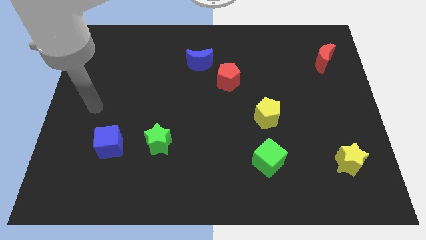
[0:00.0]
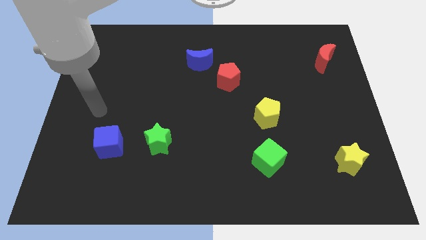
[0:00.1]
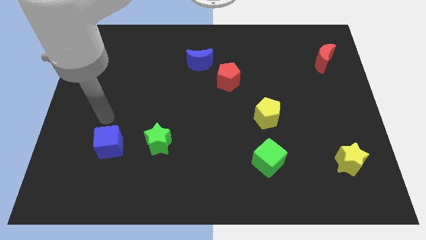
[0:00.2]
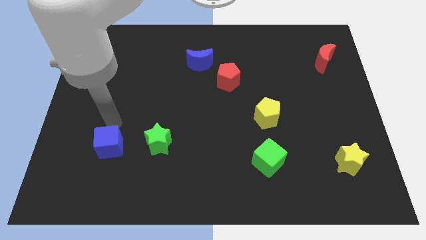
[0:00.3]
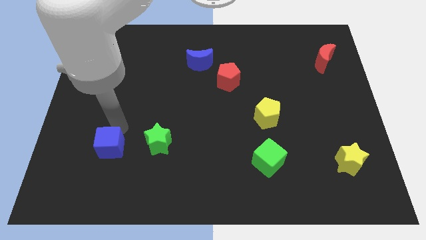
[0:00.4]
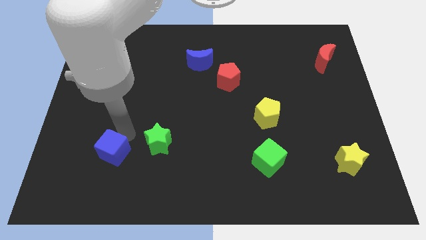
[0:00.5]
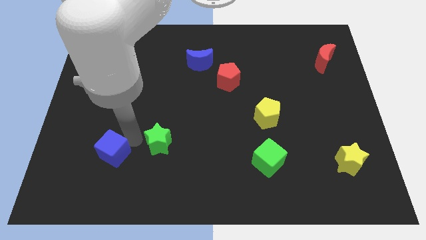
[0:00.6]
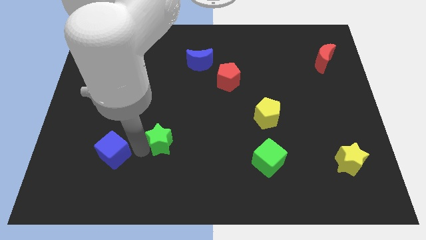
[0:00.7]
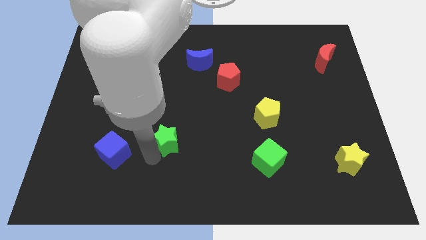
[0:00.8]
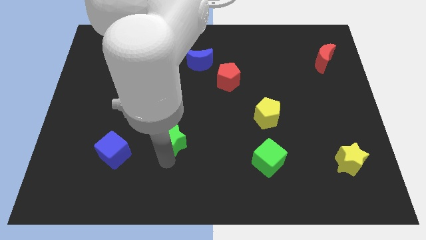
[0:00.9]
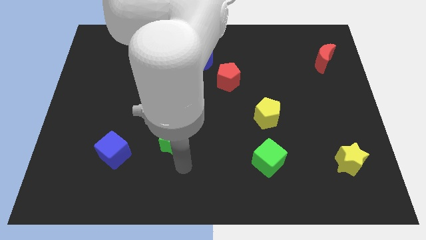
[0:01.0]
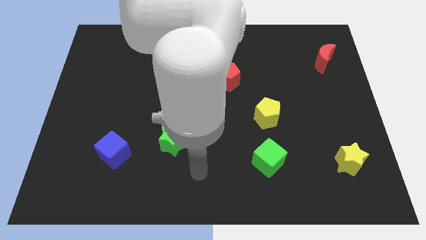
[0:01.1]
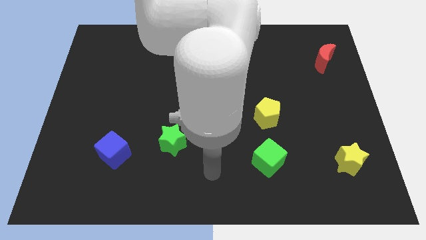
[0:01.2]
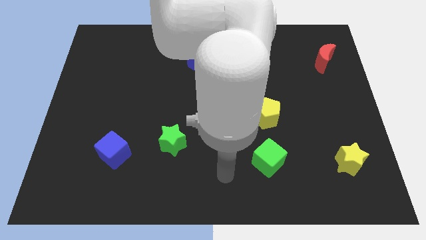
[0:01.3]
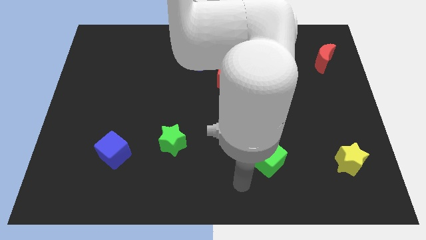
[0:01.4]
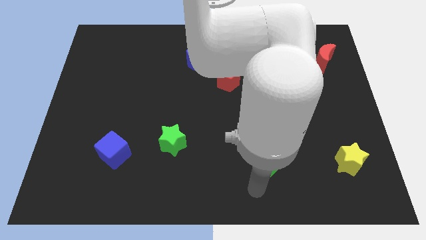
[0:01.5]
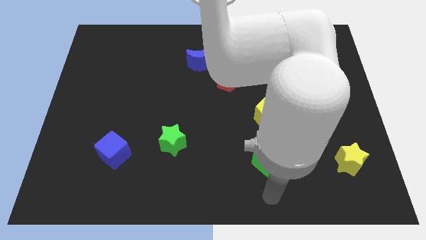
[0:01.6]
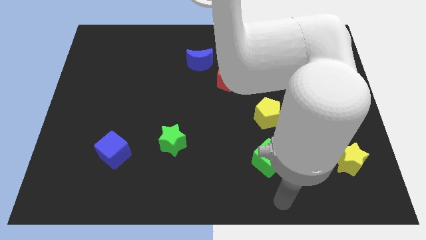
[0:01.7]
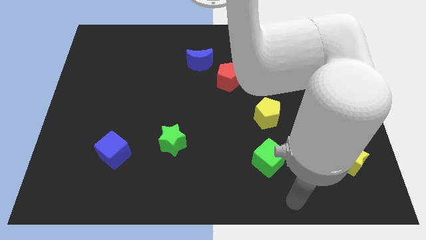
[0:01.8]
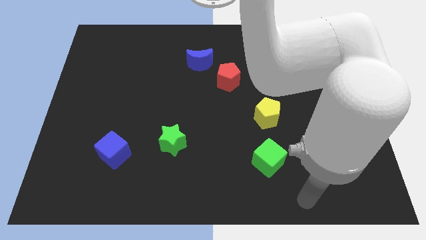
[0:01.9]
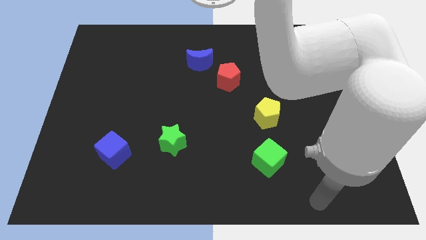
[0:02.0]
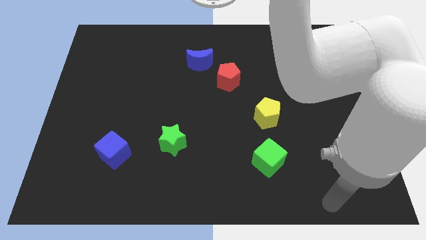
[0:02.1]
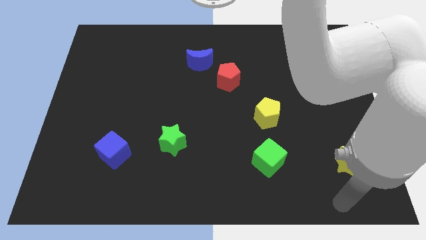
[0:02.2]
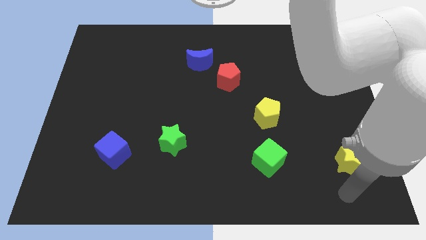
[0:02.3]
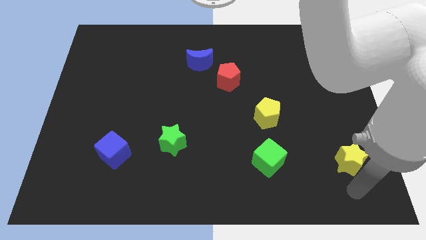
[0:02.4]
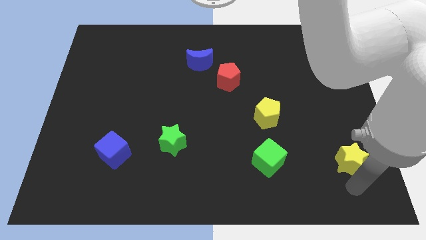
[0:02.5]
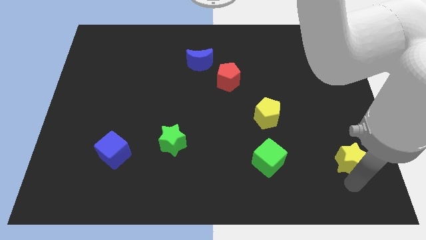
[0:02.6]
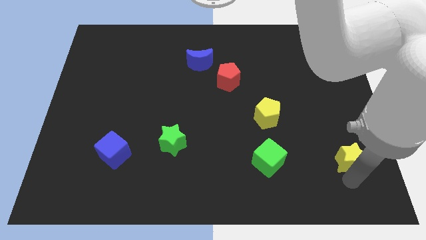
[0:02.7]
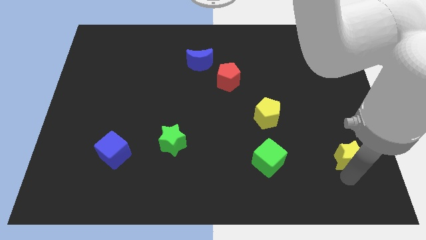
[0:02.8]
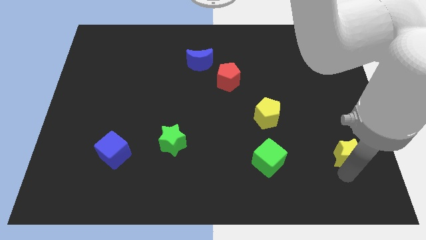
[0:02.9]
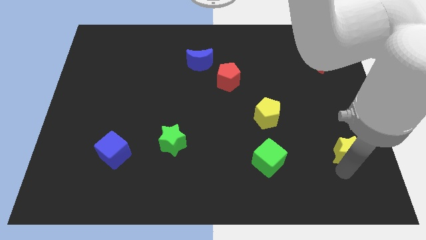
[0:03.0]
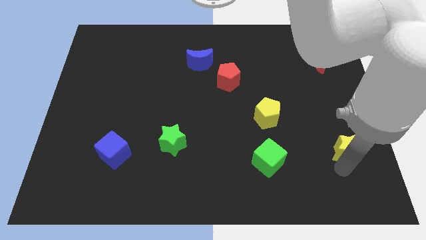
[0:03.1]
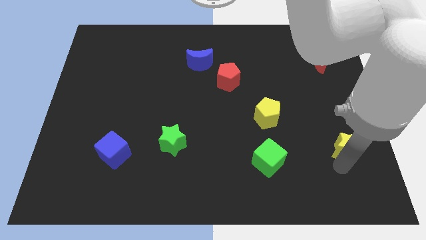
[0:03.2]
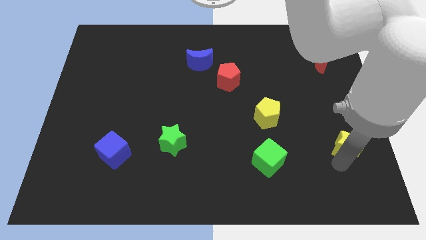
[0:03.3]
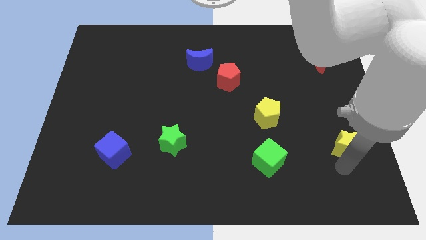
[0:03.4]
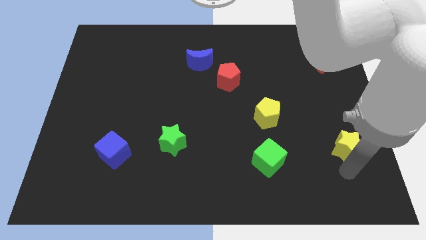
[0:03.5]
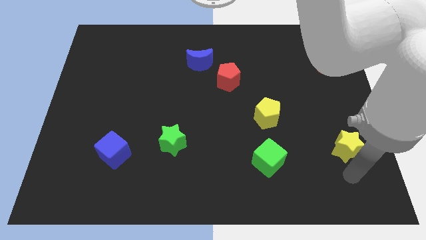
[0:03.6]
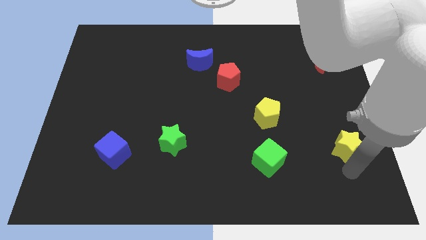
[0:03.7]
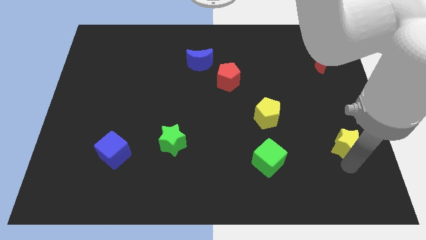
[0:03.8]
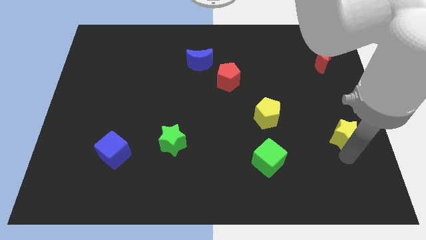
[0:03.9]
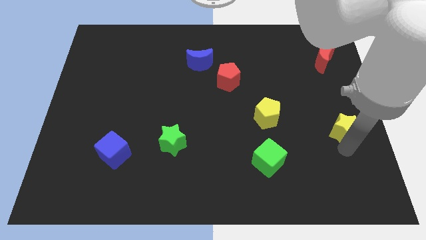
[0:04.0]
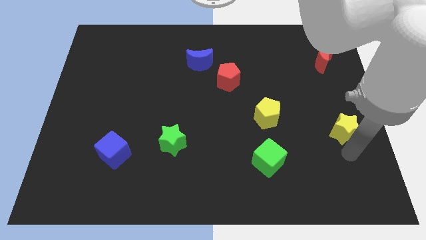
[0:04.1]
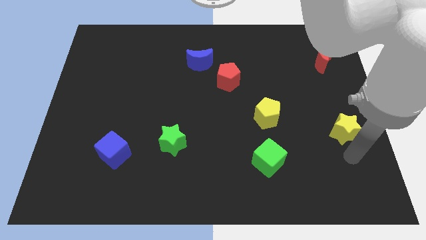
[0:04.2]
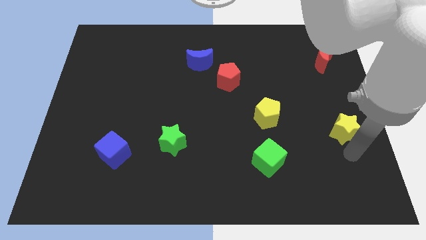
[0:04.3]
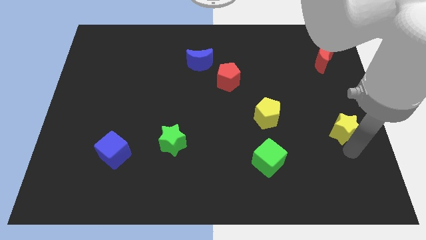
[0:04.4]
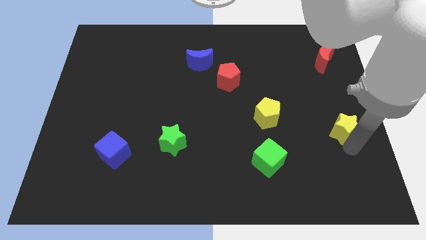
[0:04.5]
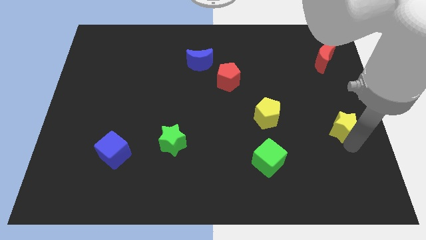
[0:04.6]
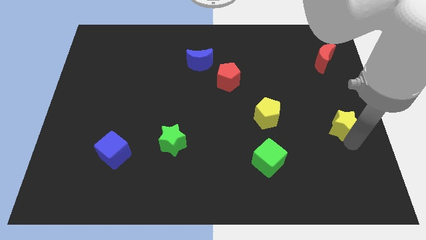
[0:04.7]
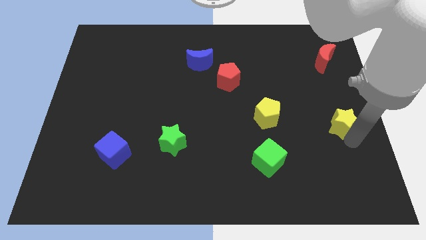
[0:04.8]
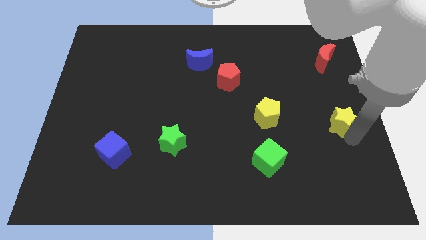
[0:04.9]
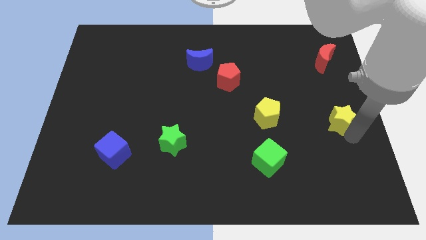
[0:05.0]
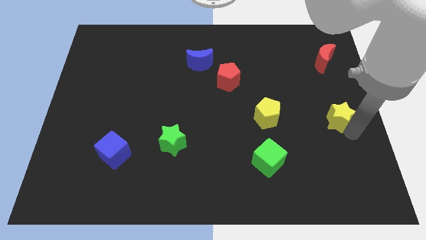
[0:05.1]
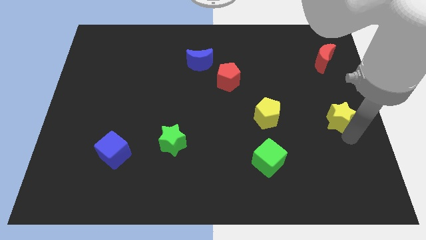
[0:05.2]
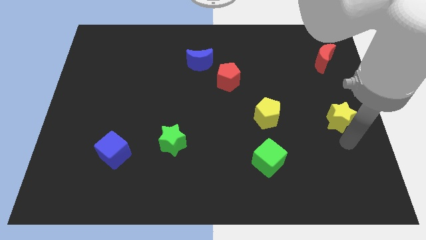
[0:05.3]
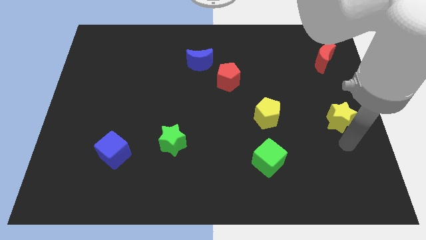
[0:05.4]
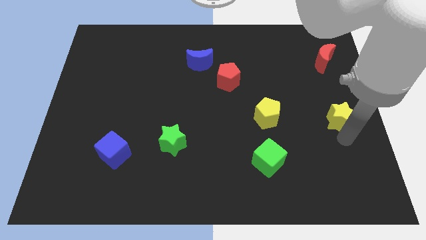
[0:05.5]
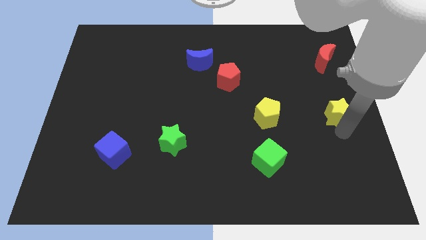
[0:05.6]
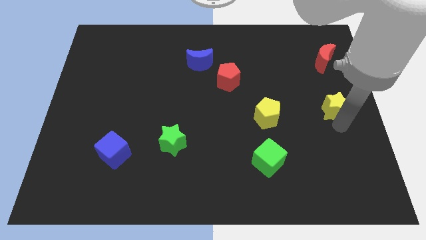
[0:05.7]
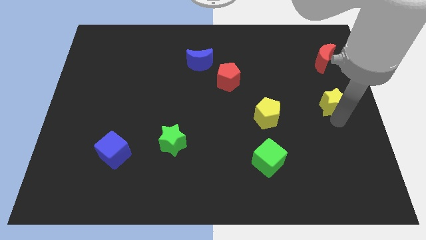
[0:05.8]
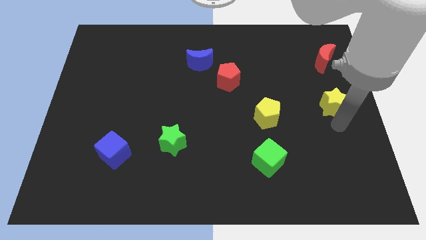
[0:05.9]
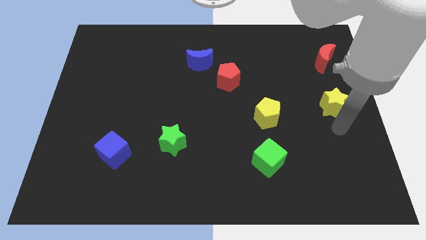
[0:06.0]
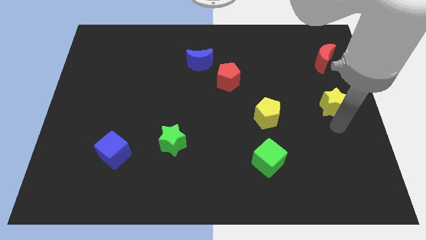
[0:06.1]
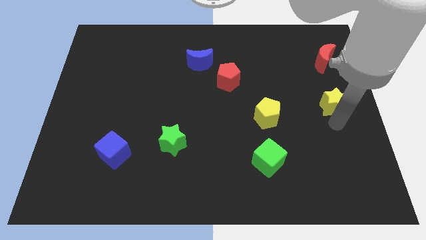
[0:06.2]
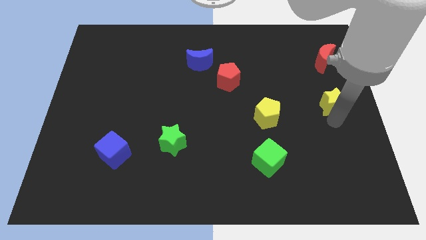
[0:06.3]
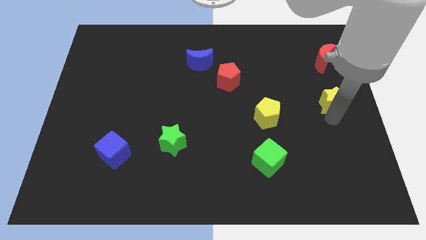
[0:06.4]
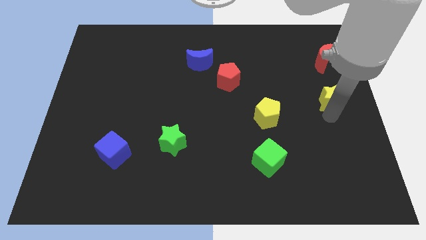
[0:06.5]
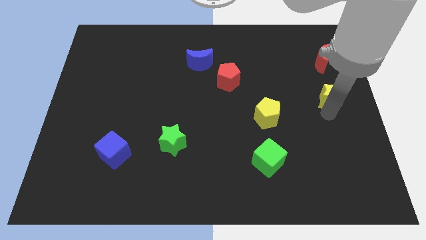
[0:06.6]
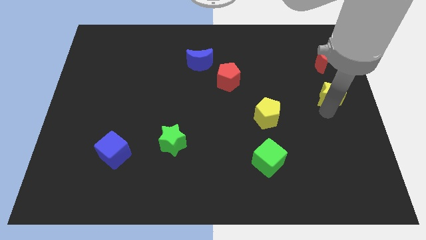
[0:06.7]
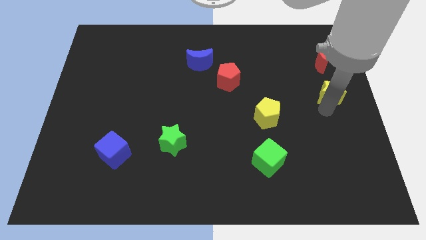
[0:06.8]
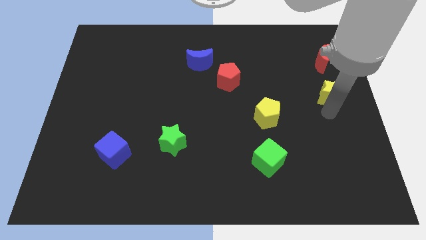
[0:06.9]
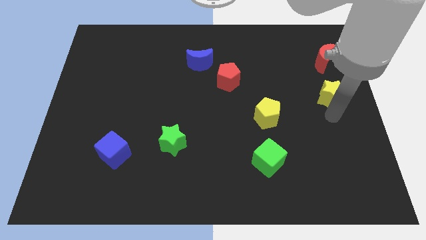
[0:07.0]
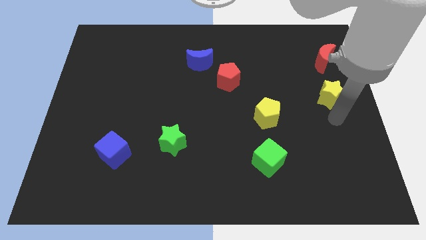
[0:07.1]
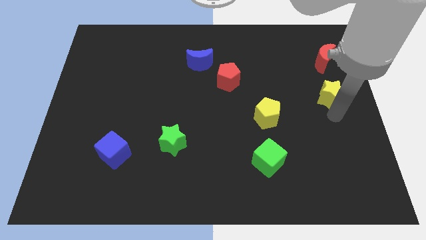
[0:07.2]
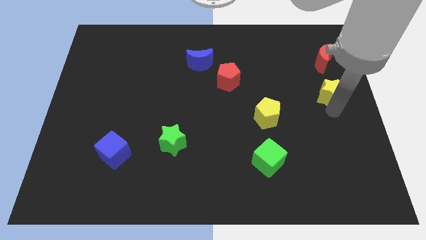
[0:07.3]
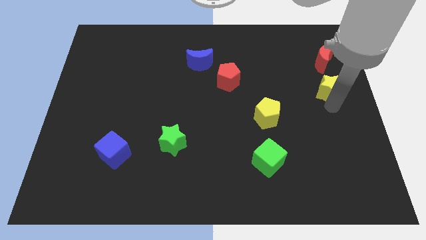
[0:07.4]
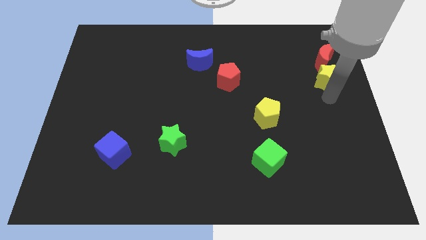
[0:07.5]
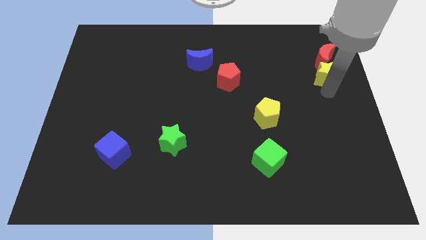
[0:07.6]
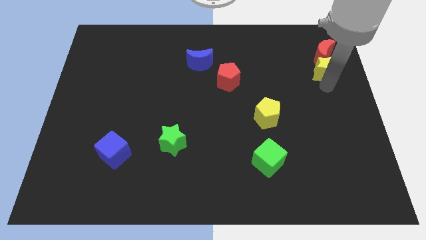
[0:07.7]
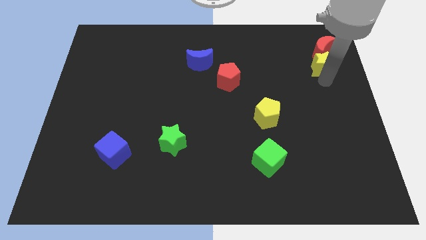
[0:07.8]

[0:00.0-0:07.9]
put the yellow star close to the red moon
